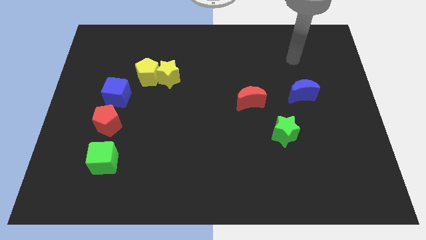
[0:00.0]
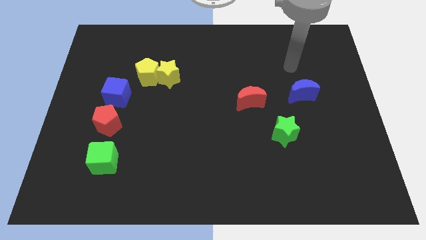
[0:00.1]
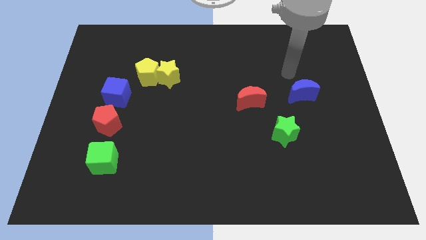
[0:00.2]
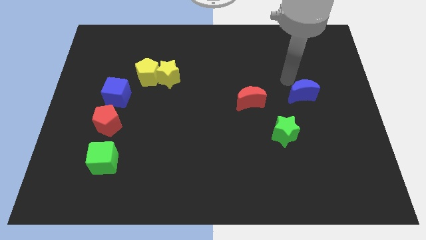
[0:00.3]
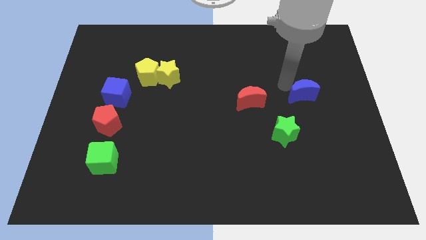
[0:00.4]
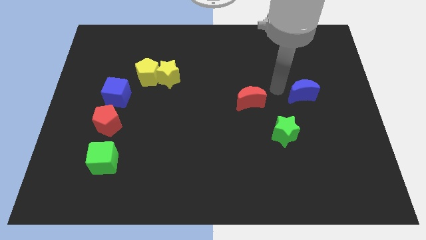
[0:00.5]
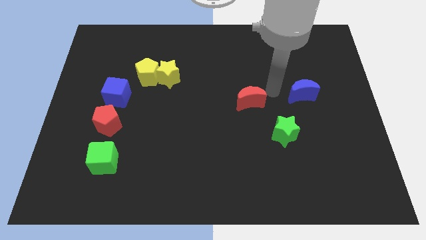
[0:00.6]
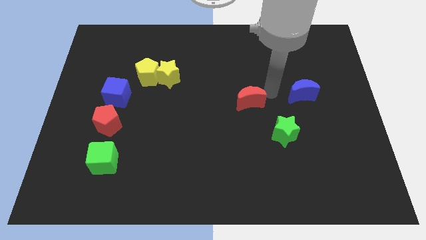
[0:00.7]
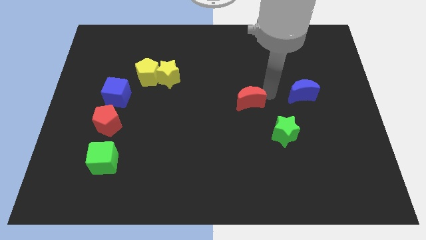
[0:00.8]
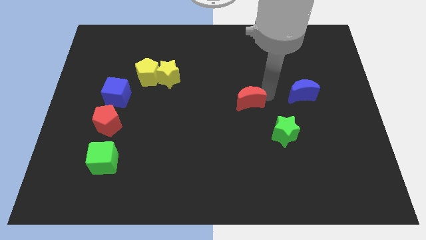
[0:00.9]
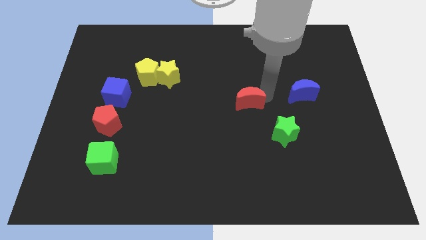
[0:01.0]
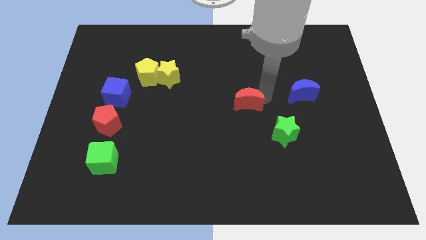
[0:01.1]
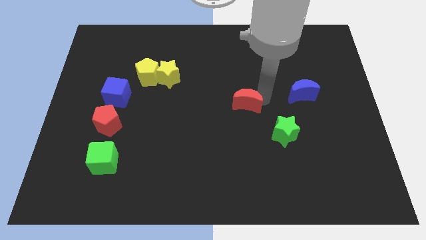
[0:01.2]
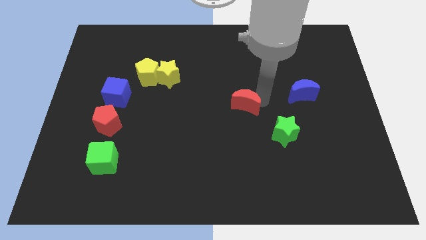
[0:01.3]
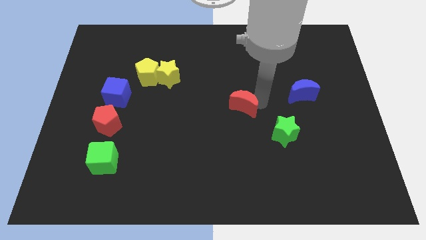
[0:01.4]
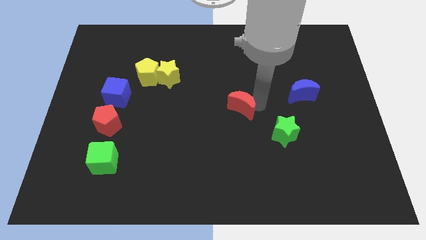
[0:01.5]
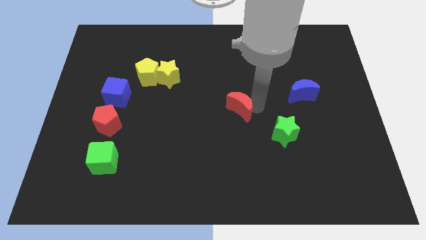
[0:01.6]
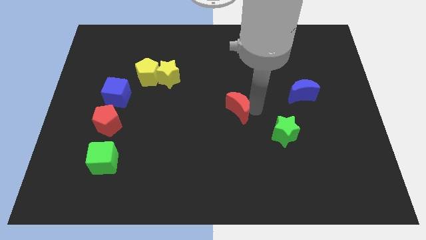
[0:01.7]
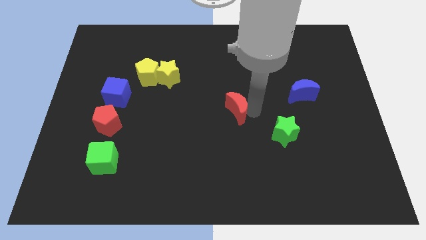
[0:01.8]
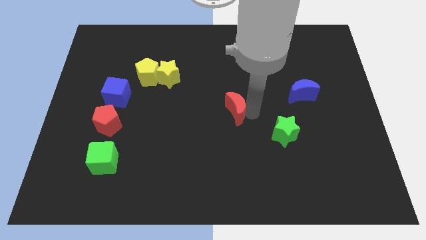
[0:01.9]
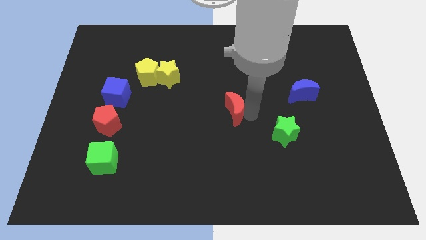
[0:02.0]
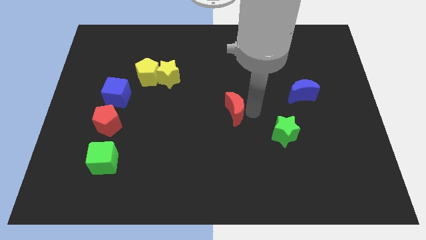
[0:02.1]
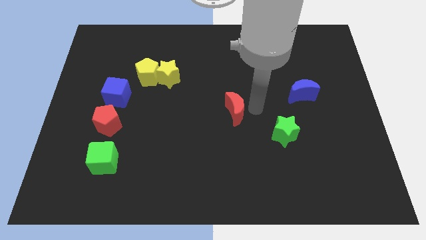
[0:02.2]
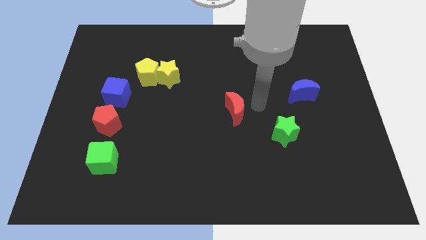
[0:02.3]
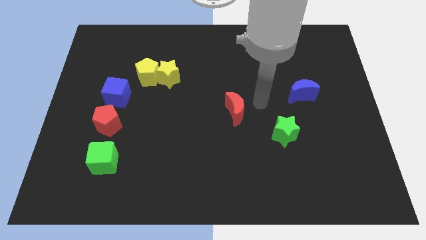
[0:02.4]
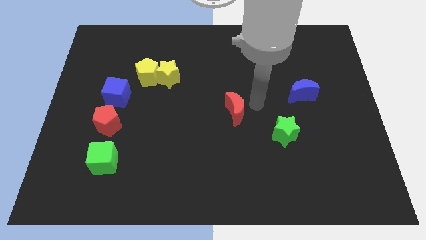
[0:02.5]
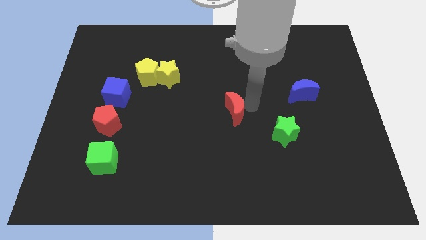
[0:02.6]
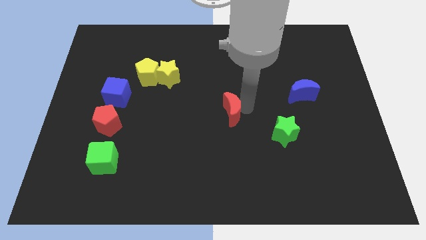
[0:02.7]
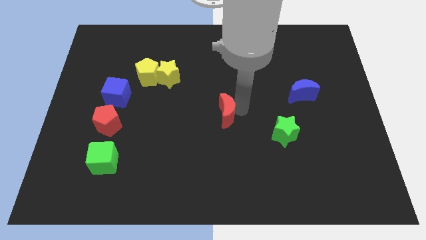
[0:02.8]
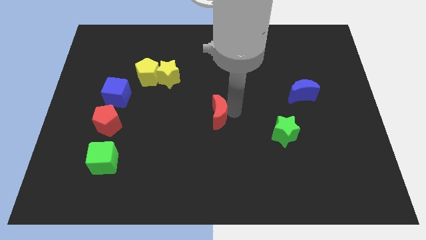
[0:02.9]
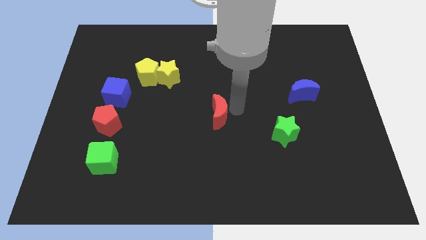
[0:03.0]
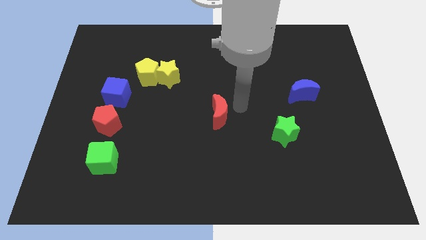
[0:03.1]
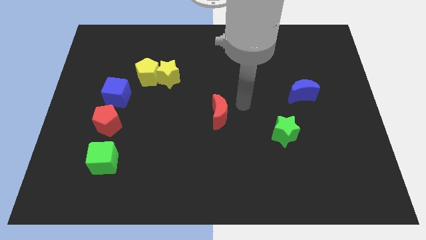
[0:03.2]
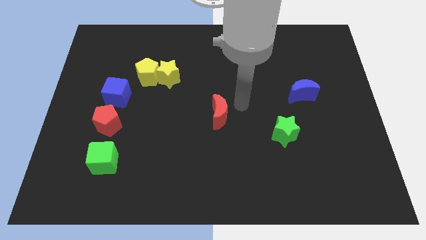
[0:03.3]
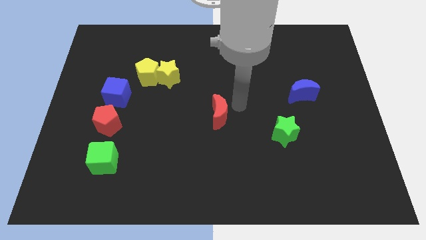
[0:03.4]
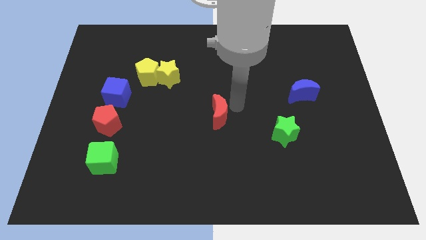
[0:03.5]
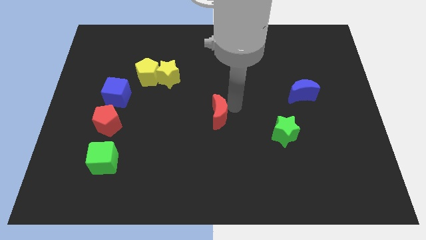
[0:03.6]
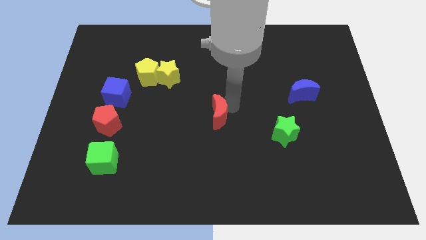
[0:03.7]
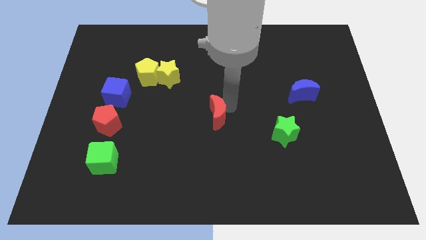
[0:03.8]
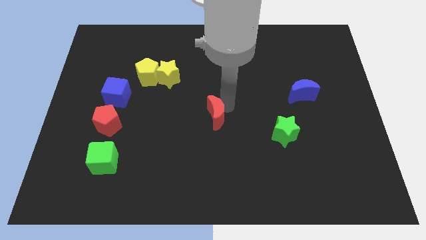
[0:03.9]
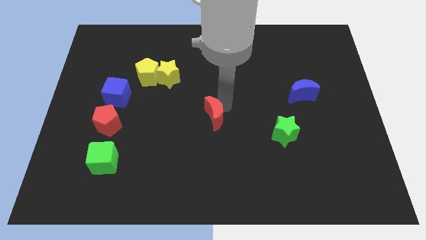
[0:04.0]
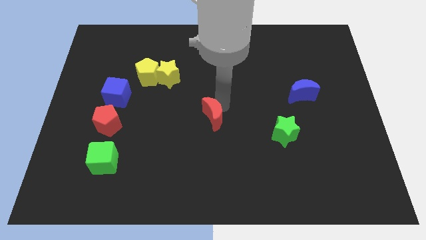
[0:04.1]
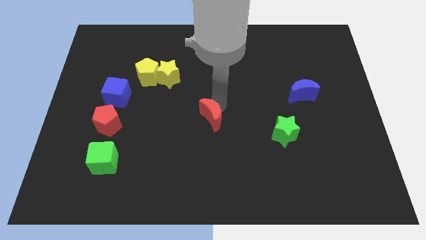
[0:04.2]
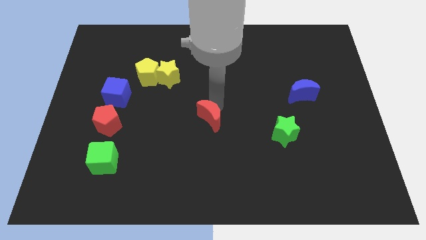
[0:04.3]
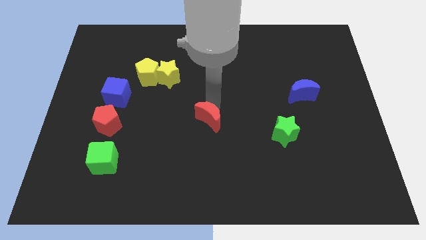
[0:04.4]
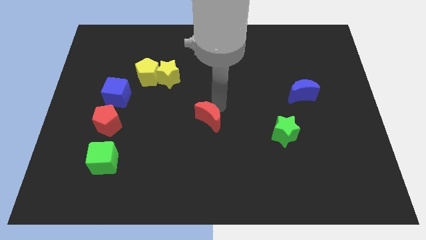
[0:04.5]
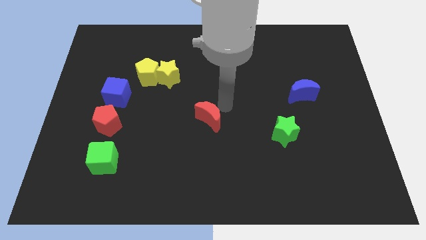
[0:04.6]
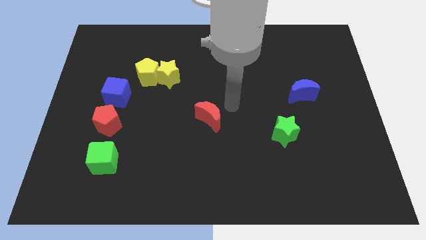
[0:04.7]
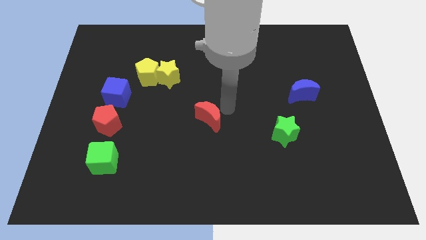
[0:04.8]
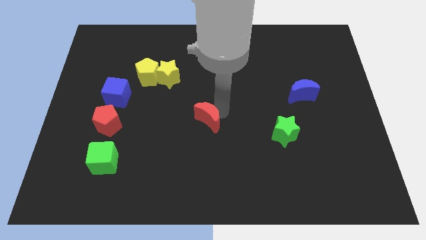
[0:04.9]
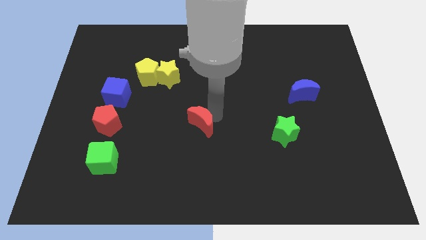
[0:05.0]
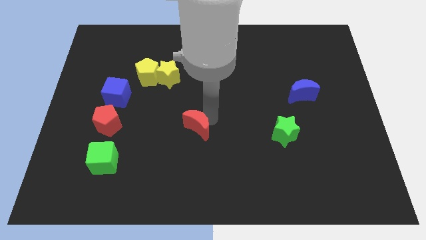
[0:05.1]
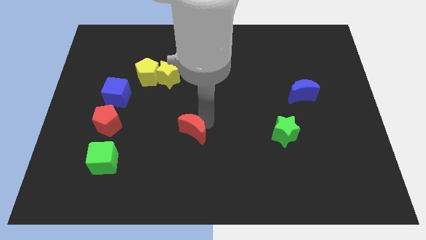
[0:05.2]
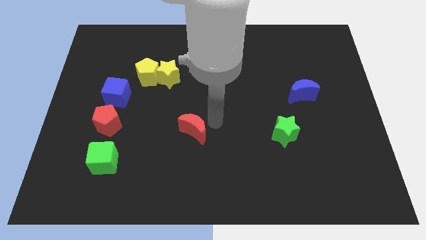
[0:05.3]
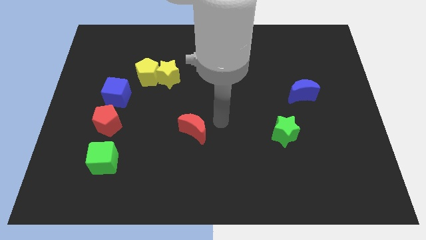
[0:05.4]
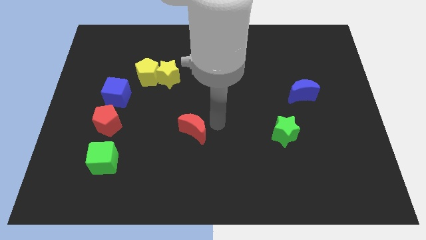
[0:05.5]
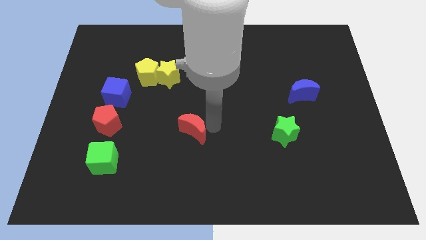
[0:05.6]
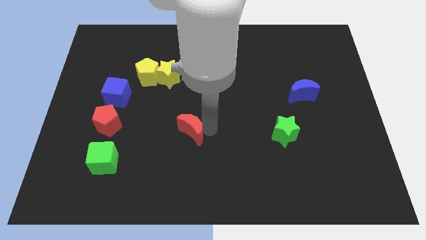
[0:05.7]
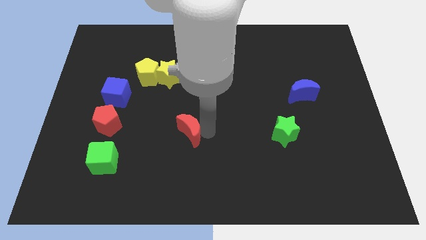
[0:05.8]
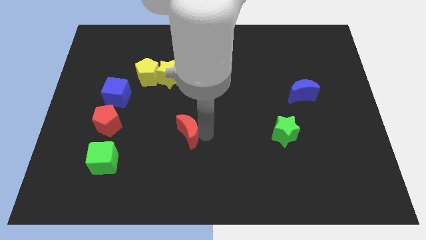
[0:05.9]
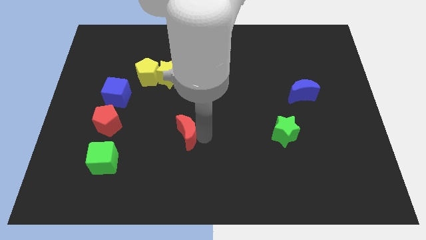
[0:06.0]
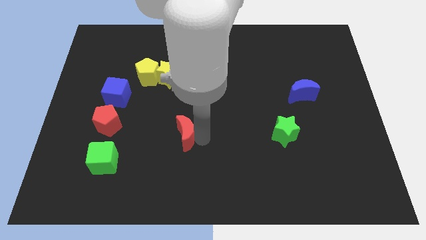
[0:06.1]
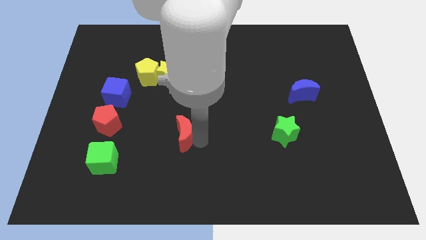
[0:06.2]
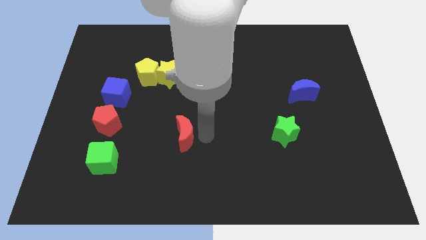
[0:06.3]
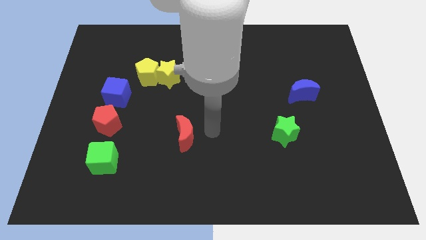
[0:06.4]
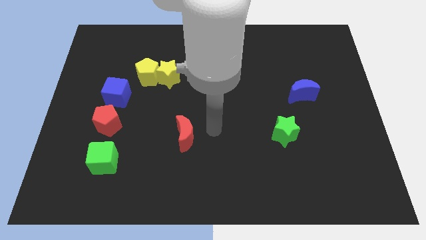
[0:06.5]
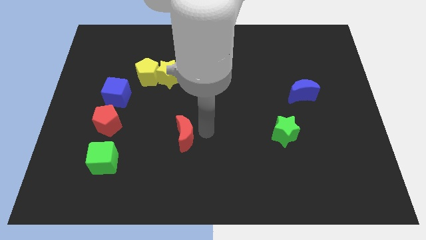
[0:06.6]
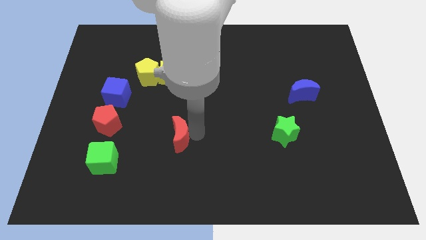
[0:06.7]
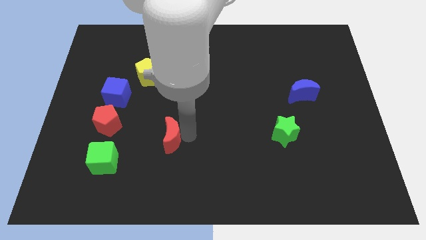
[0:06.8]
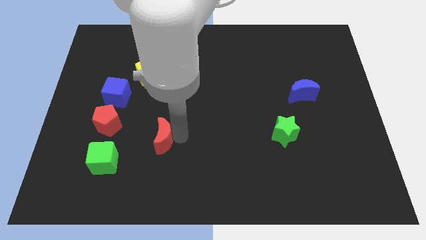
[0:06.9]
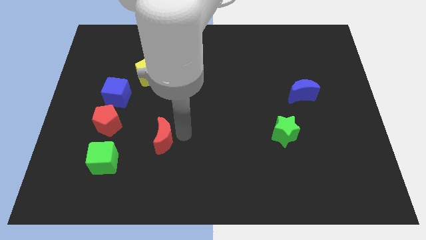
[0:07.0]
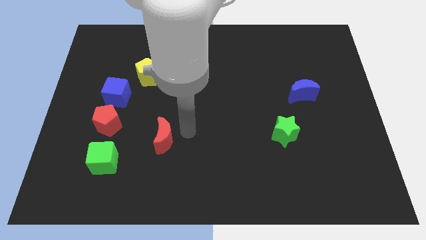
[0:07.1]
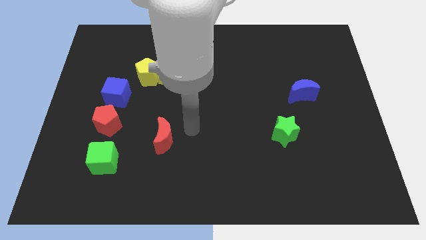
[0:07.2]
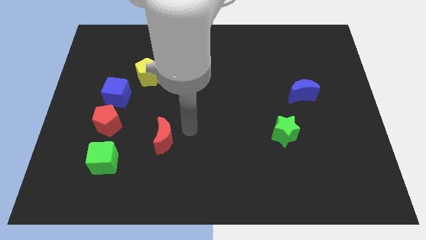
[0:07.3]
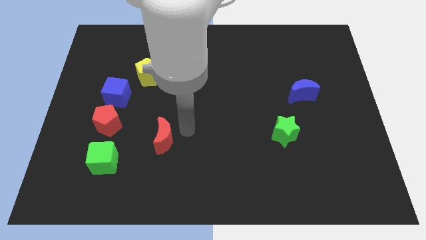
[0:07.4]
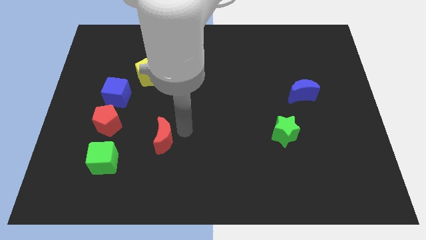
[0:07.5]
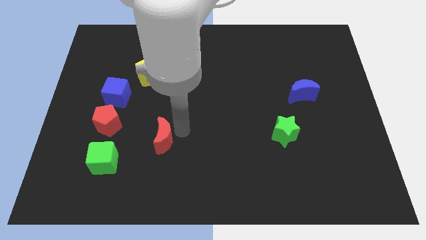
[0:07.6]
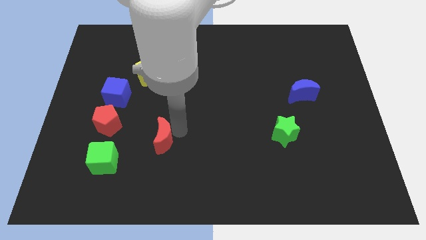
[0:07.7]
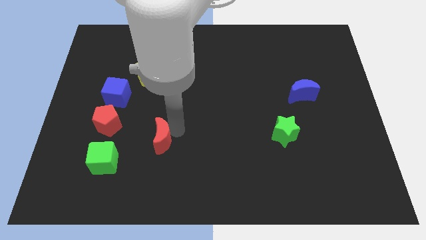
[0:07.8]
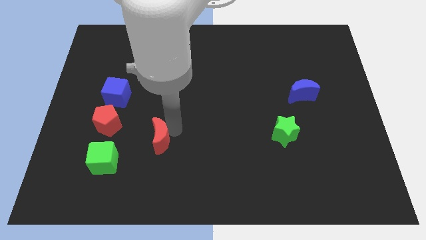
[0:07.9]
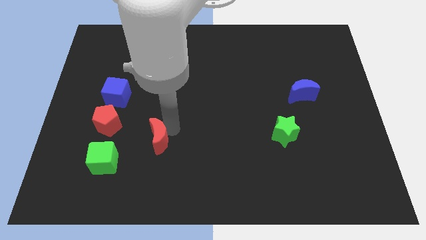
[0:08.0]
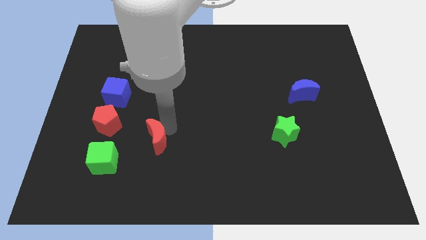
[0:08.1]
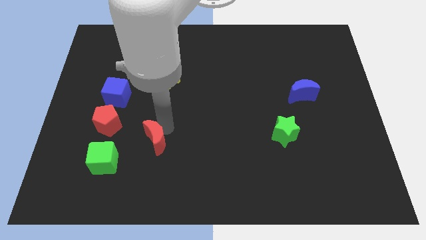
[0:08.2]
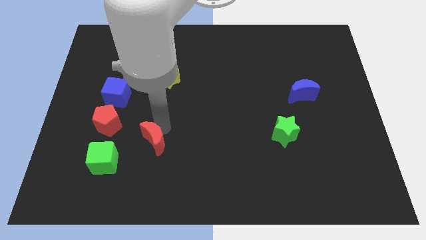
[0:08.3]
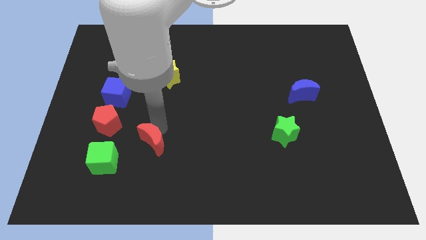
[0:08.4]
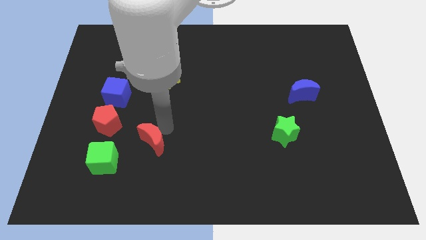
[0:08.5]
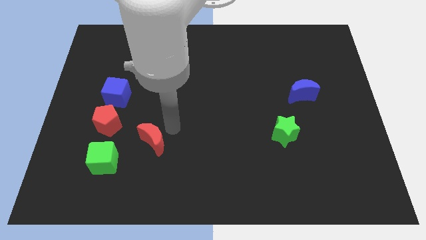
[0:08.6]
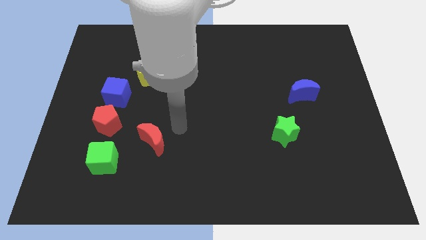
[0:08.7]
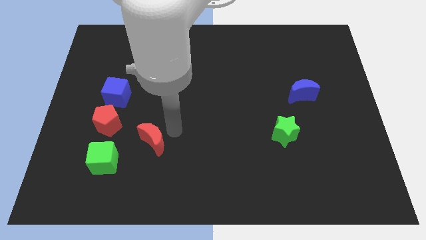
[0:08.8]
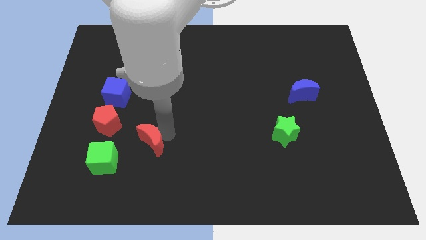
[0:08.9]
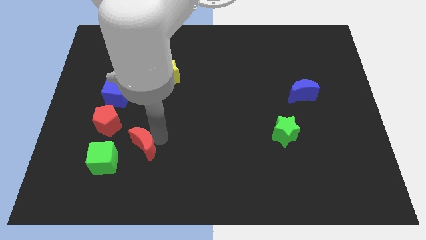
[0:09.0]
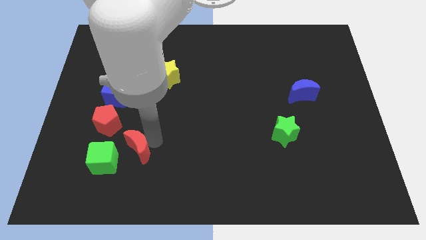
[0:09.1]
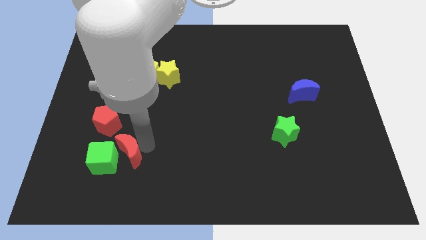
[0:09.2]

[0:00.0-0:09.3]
slide the red moon to the green cube
